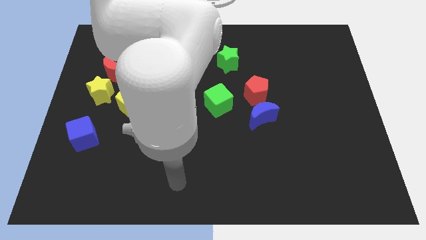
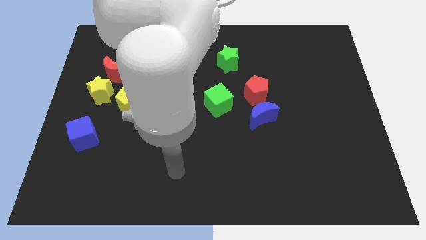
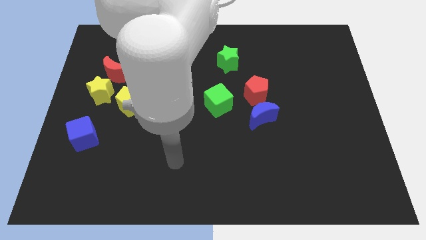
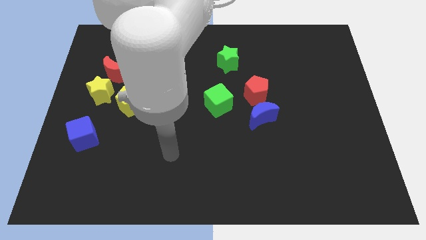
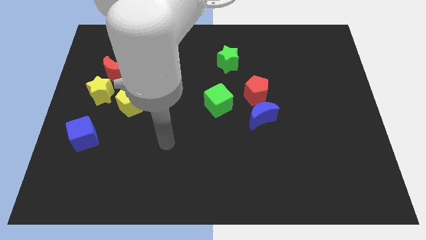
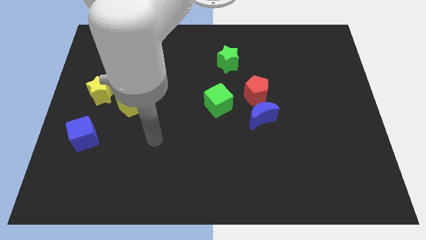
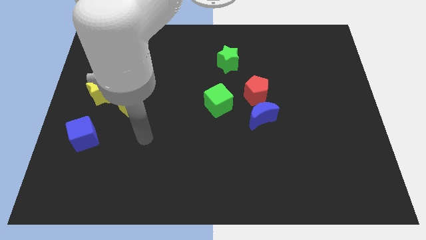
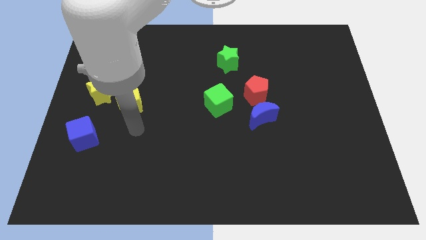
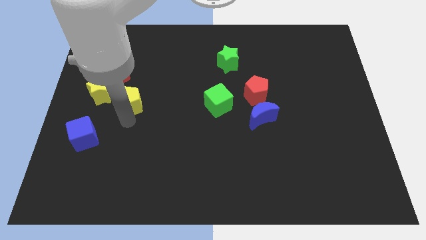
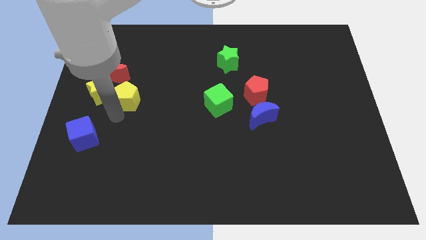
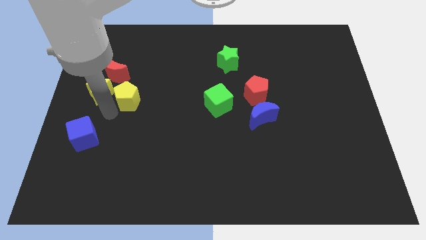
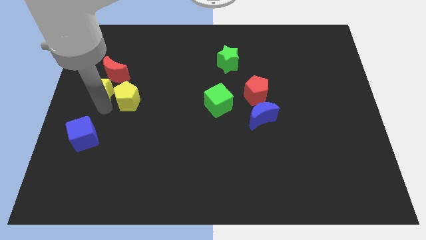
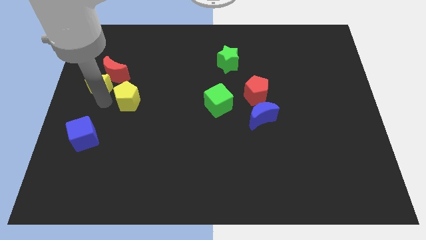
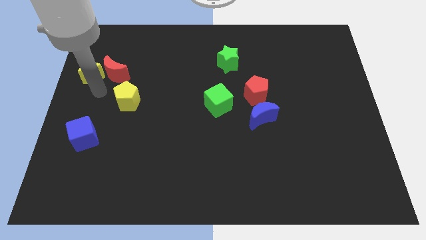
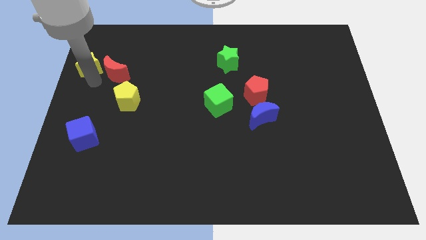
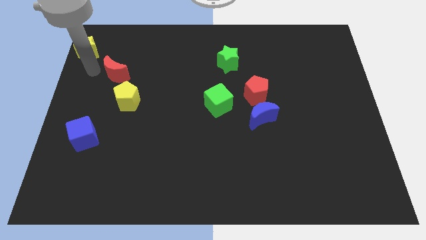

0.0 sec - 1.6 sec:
separate the red moon from the yellow star

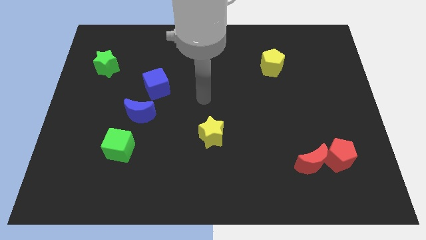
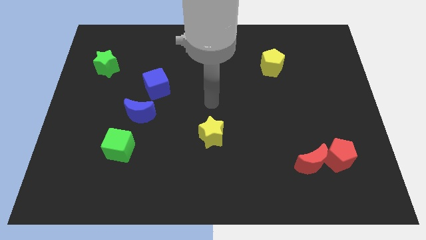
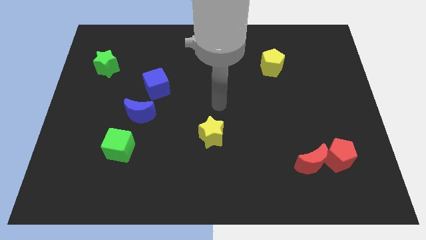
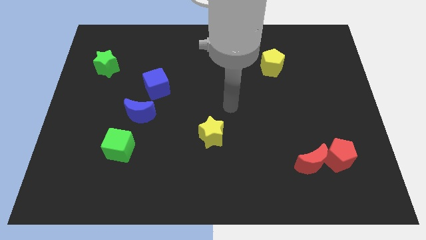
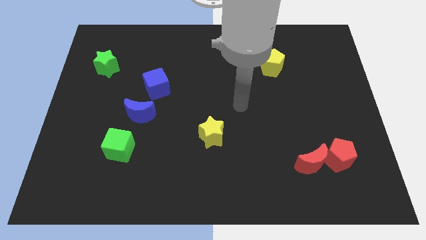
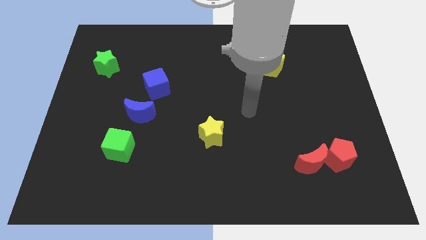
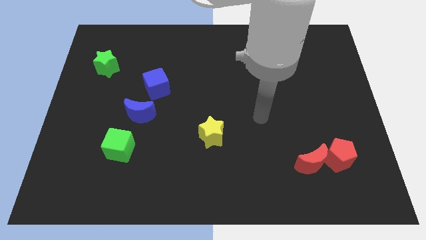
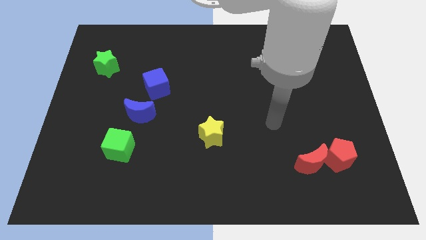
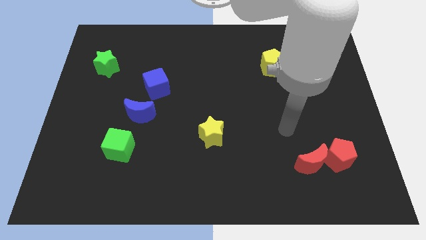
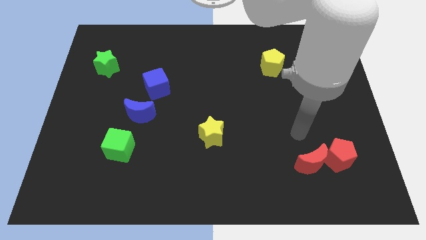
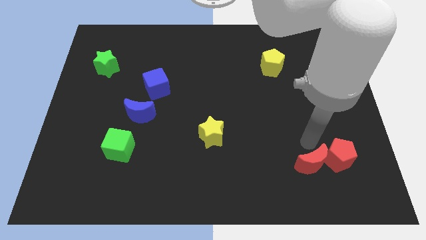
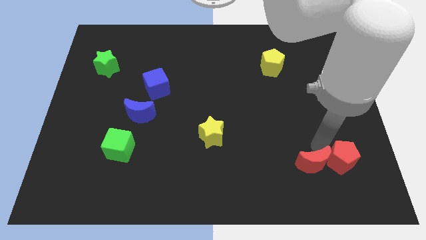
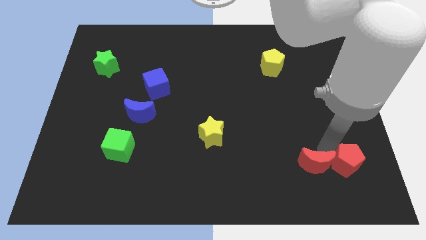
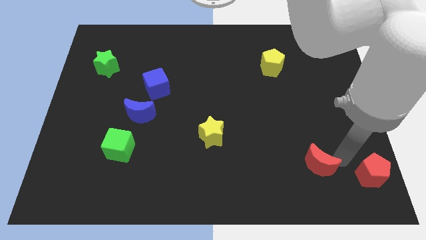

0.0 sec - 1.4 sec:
separate the red moon from the red pentagon

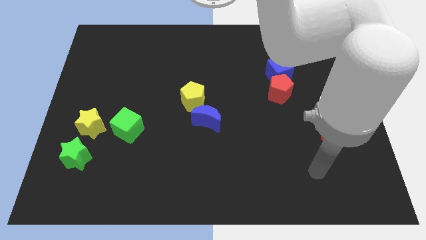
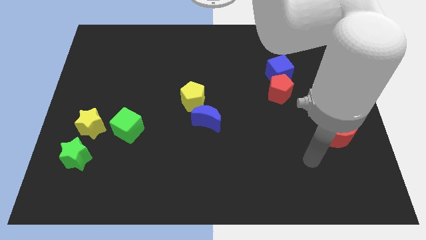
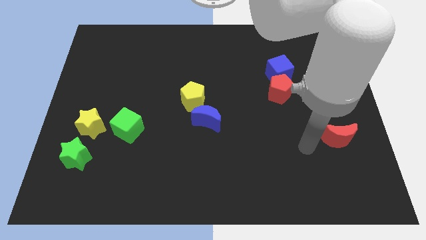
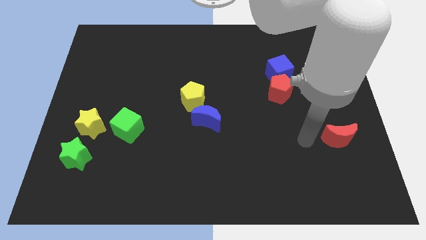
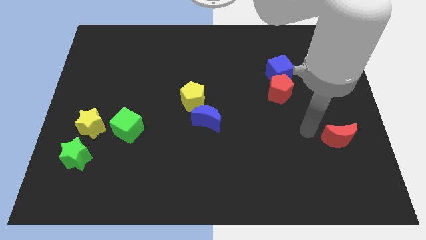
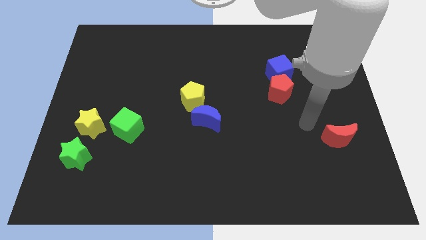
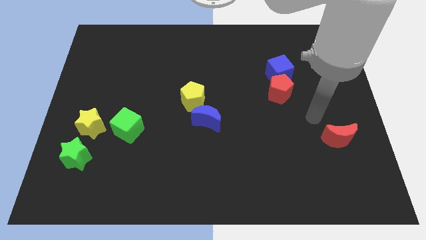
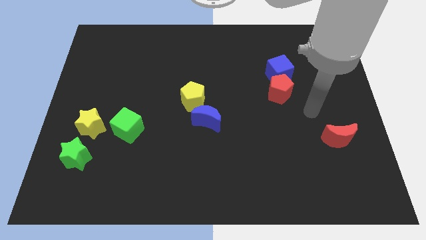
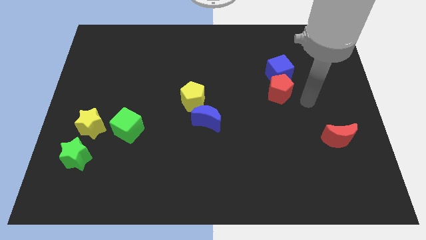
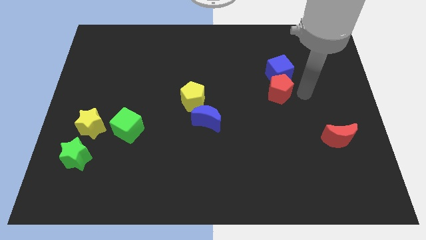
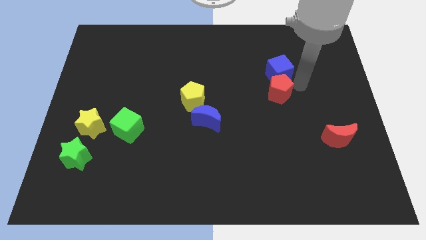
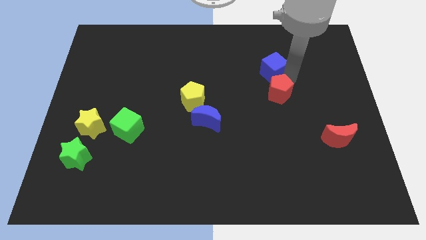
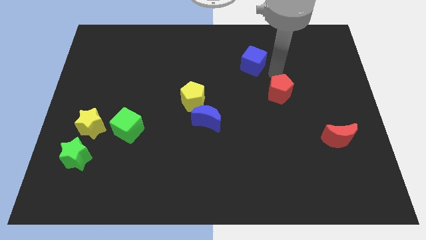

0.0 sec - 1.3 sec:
separate the red pentagon from the blue cube

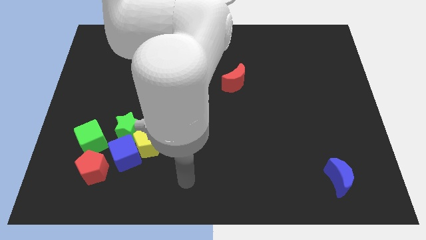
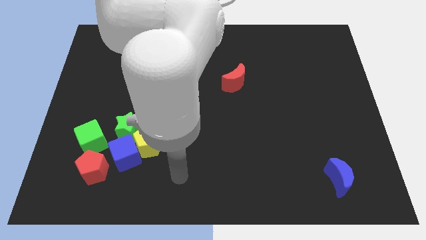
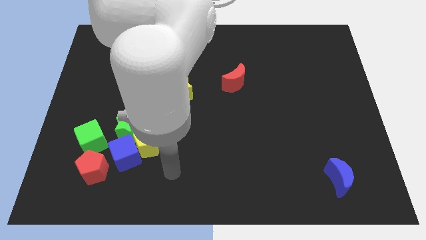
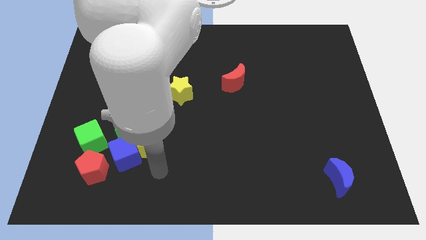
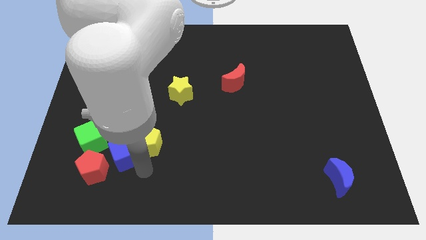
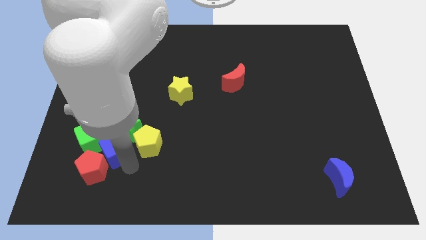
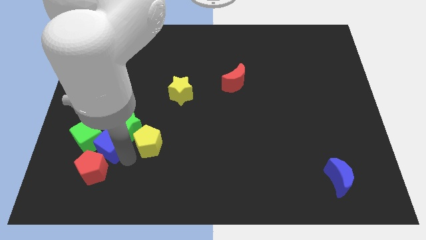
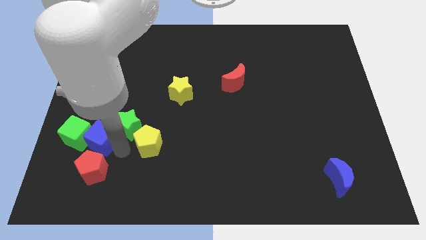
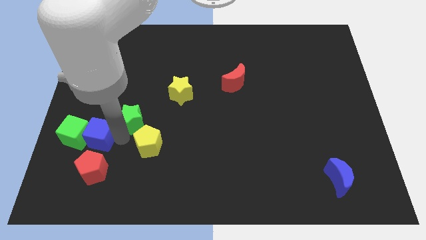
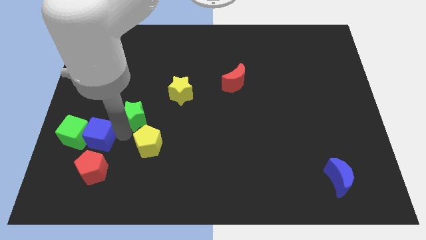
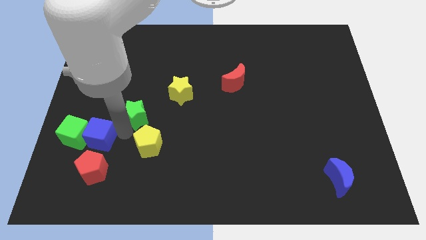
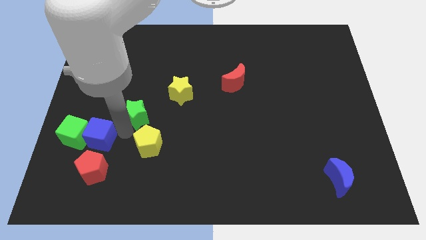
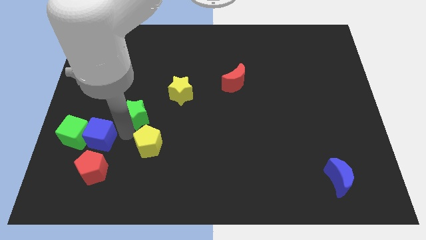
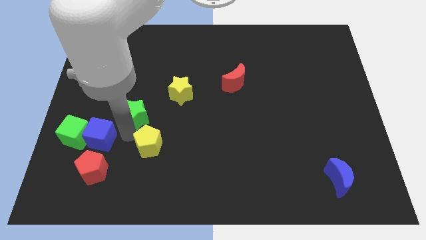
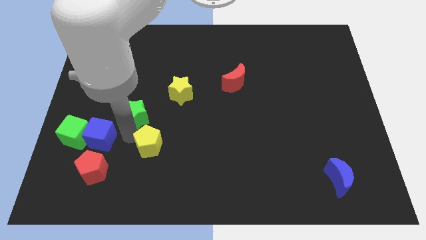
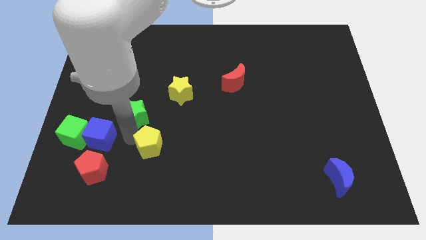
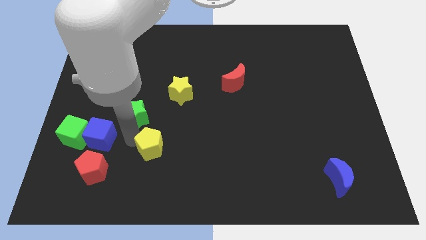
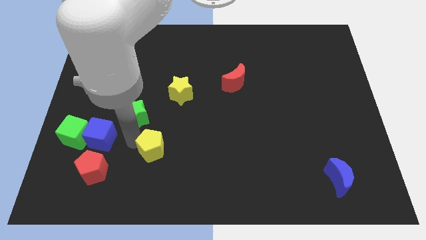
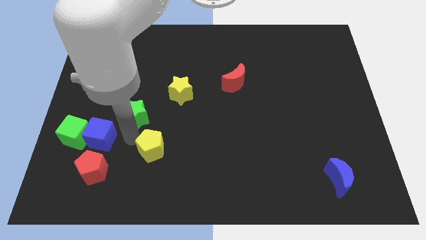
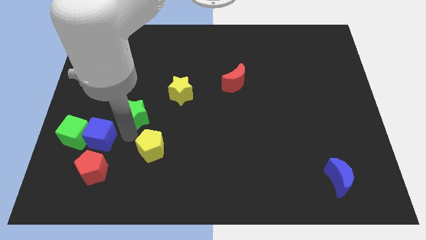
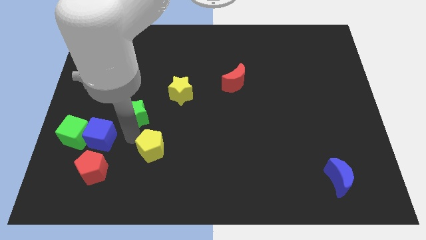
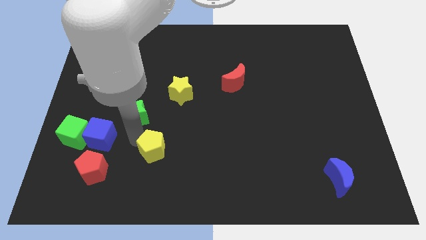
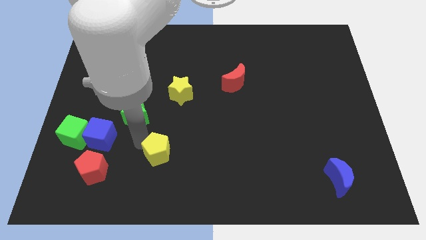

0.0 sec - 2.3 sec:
pull the yellow pentagon apart from the blue cube and green star

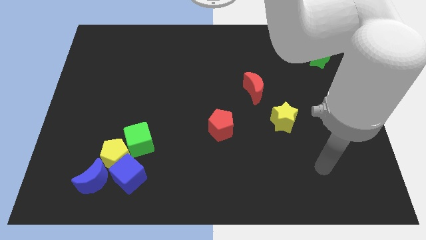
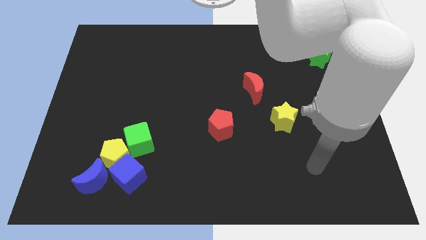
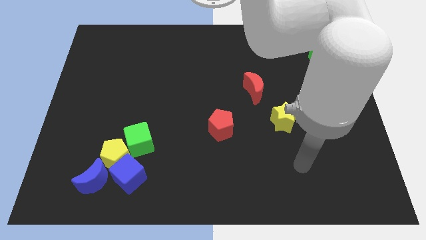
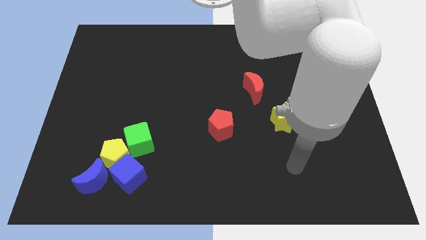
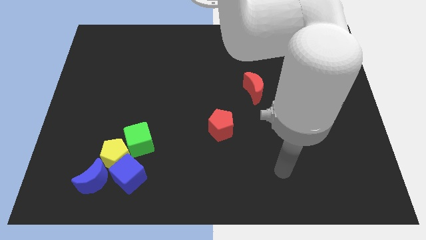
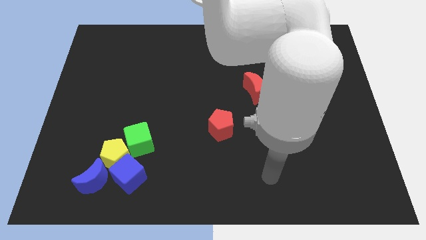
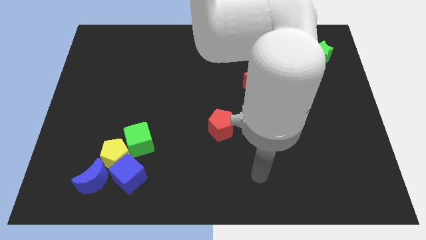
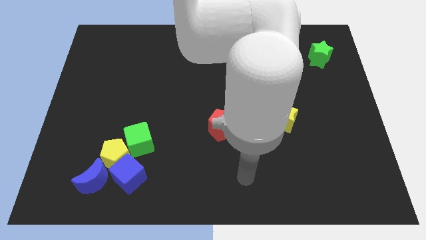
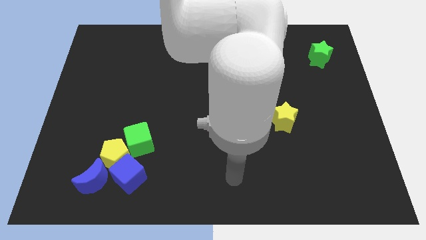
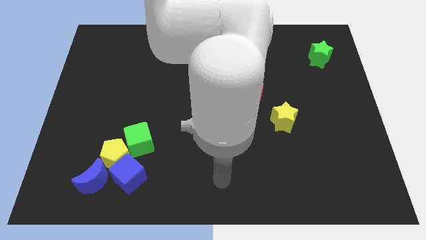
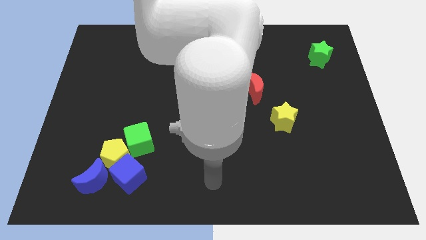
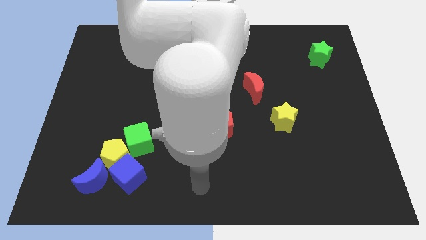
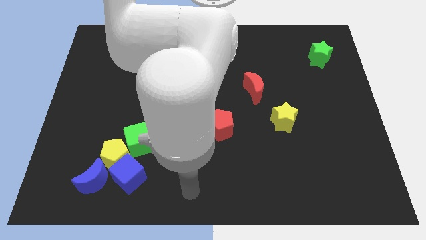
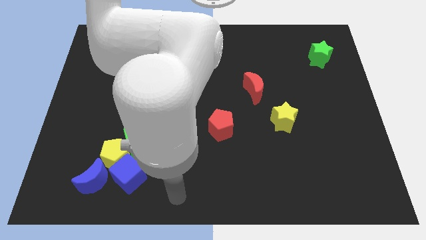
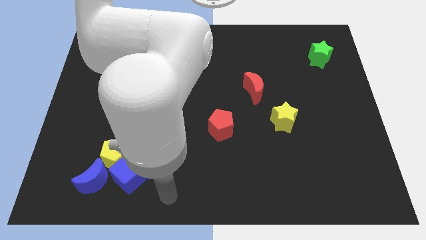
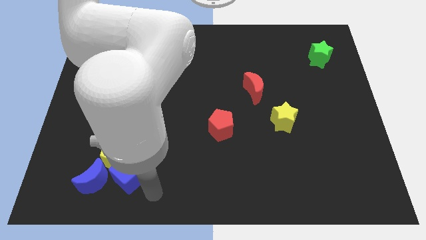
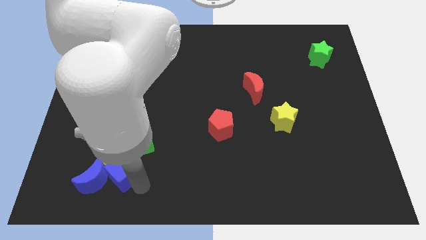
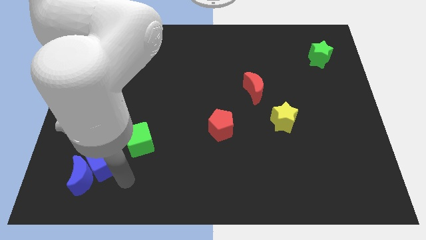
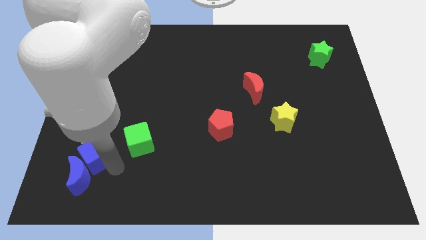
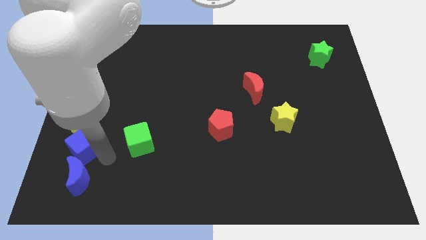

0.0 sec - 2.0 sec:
move the yellow pentagon away from the group of blocks

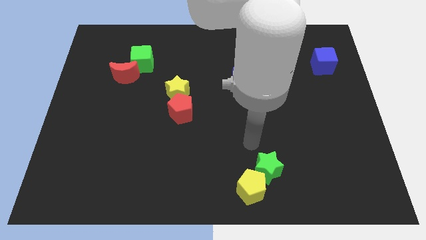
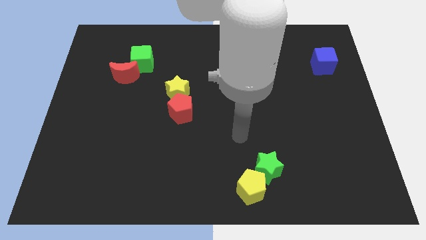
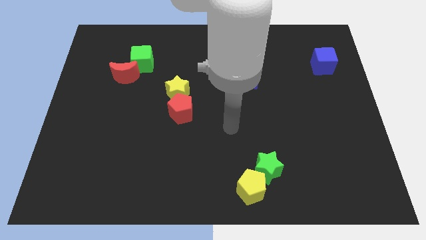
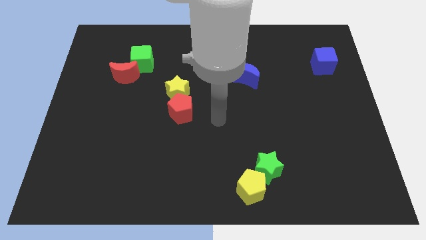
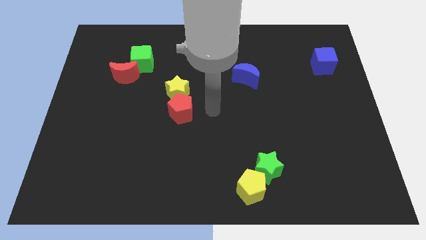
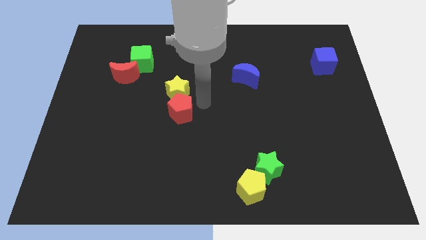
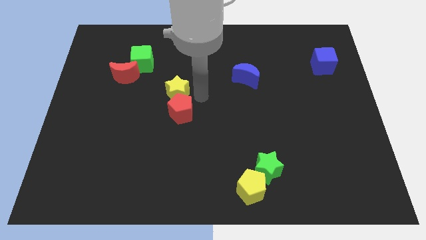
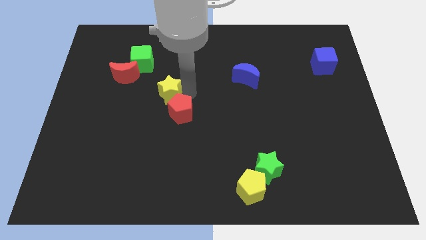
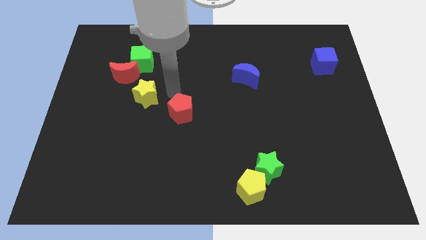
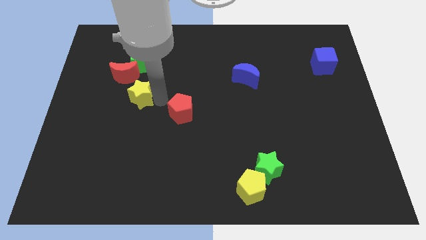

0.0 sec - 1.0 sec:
pull the red pentagon apart from the yellow star
